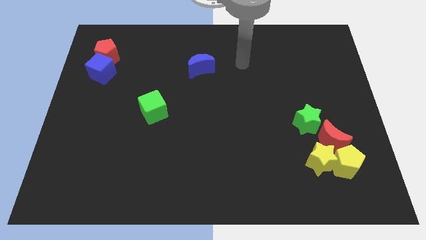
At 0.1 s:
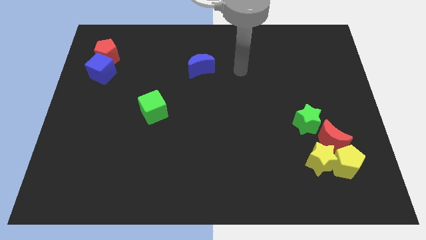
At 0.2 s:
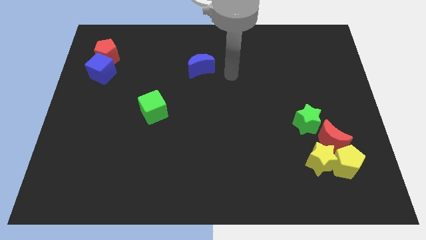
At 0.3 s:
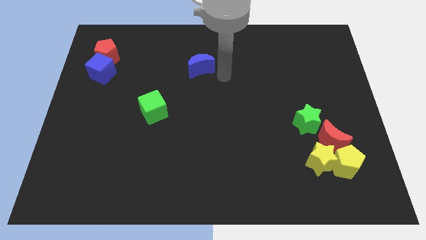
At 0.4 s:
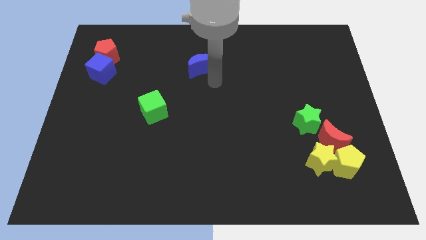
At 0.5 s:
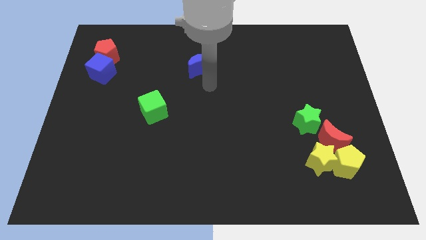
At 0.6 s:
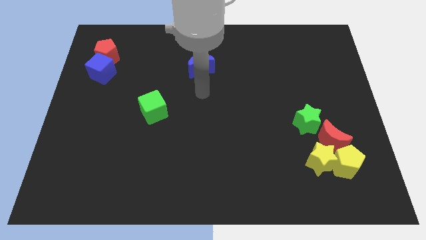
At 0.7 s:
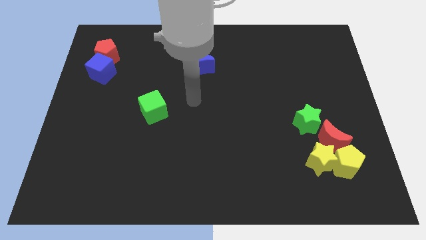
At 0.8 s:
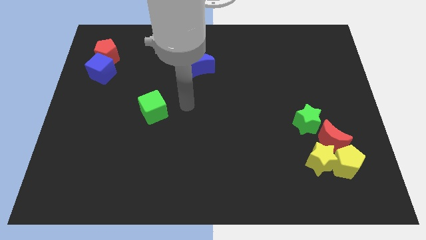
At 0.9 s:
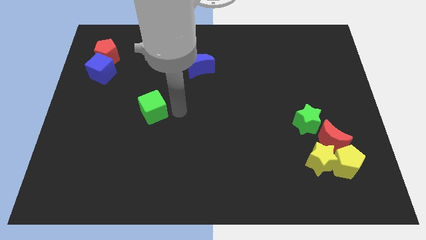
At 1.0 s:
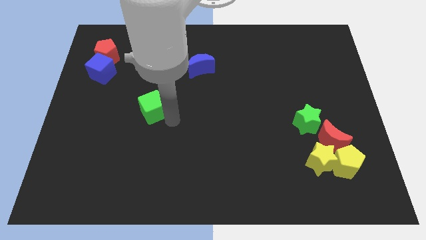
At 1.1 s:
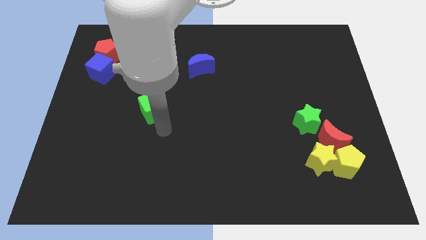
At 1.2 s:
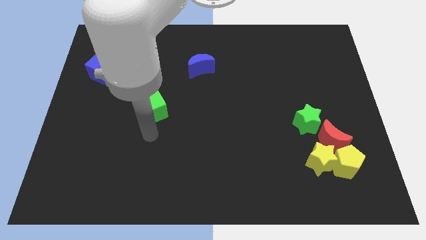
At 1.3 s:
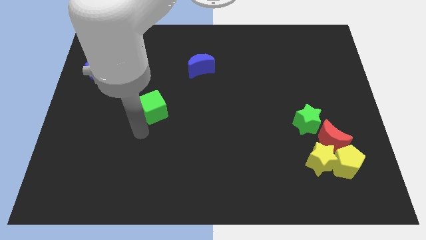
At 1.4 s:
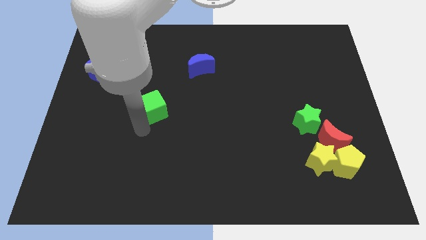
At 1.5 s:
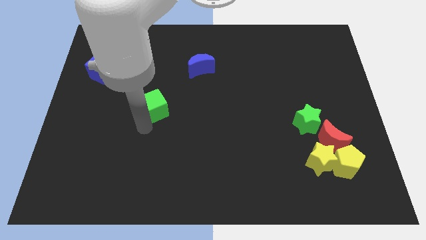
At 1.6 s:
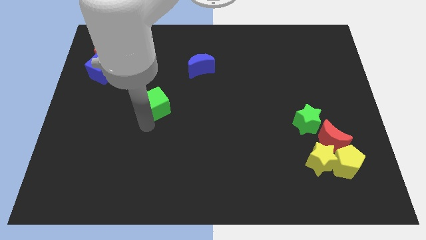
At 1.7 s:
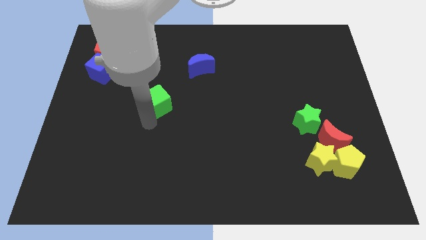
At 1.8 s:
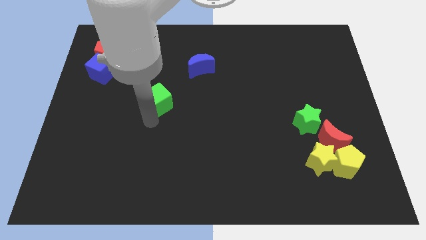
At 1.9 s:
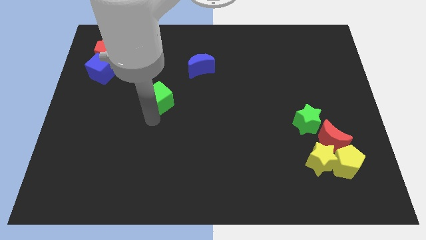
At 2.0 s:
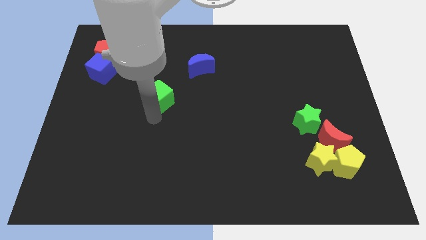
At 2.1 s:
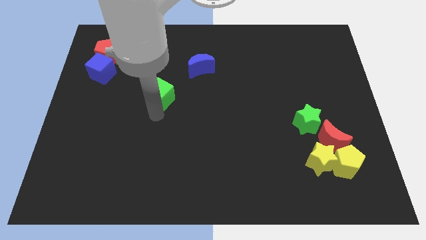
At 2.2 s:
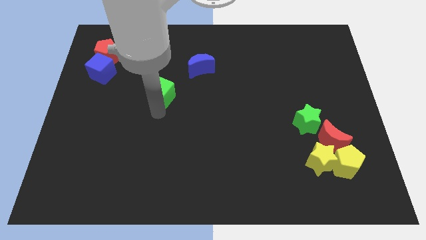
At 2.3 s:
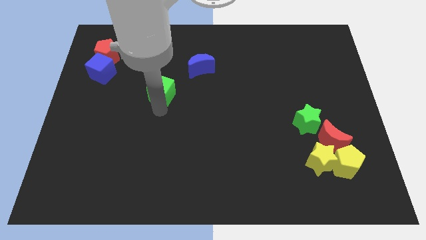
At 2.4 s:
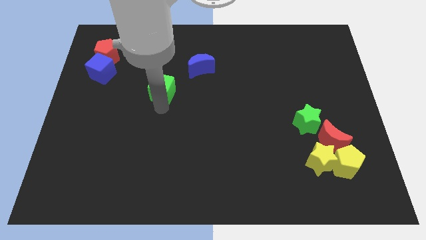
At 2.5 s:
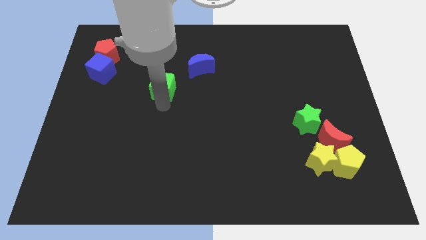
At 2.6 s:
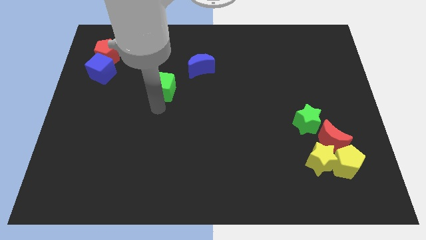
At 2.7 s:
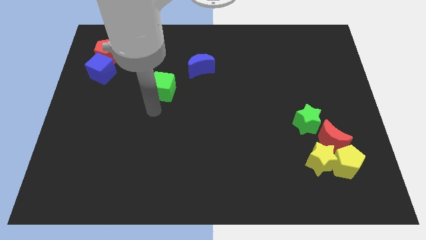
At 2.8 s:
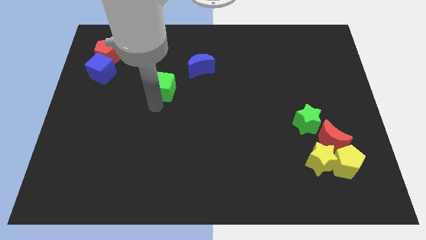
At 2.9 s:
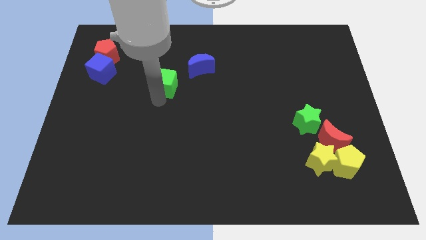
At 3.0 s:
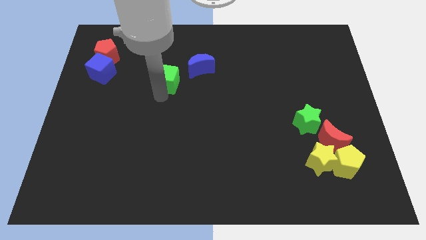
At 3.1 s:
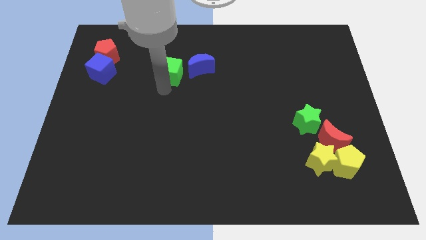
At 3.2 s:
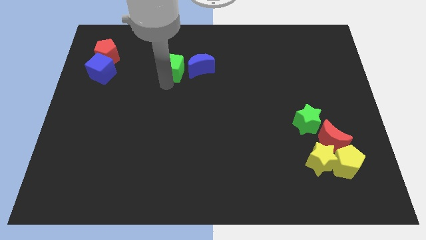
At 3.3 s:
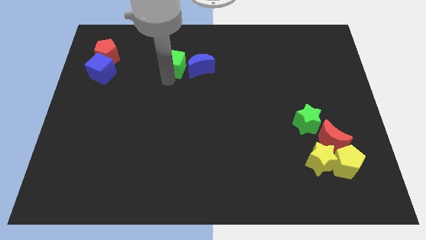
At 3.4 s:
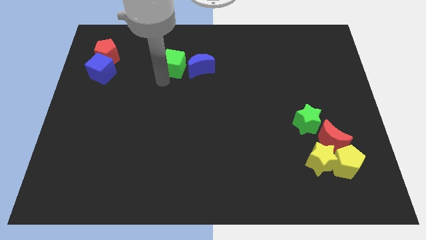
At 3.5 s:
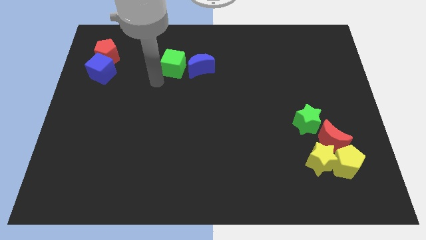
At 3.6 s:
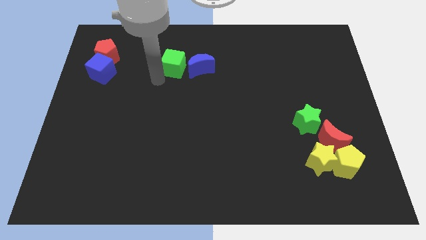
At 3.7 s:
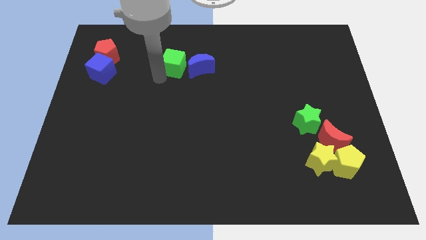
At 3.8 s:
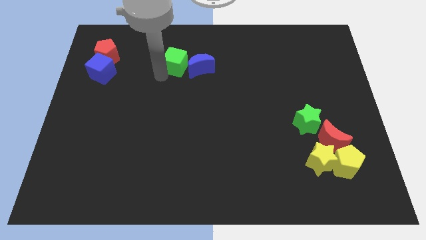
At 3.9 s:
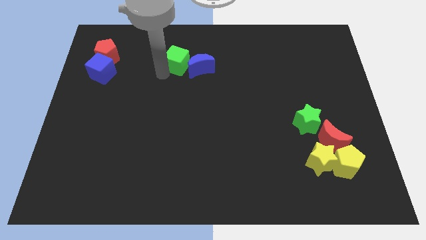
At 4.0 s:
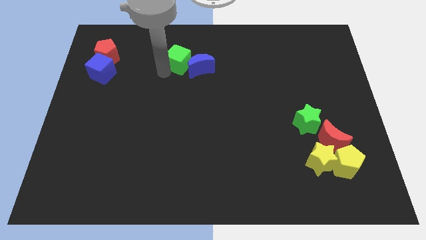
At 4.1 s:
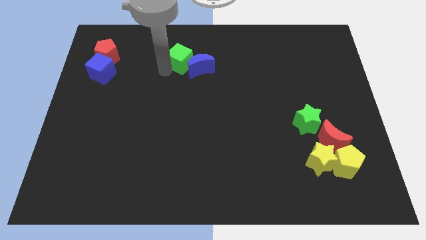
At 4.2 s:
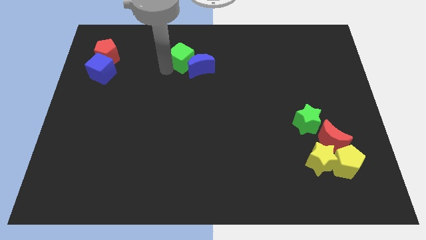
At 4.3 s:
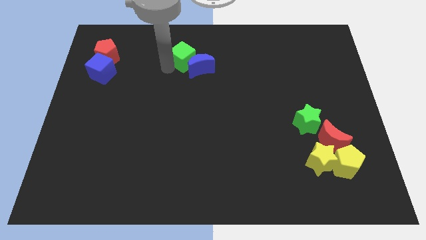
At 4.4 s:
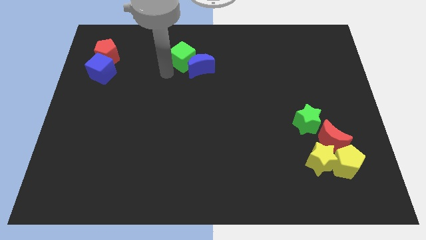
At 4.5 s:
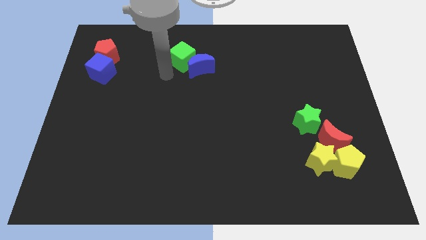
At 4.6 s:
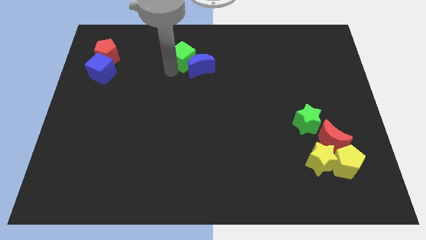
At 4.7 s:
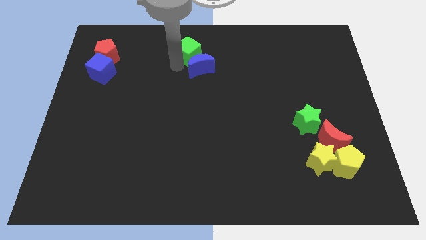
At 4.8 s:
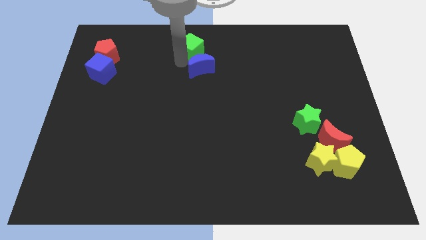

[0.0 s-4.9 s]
move the green cube to the top side

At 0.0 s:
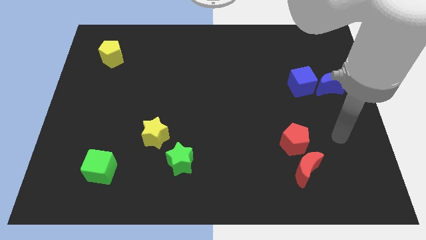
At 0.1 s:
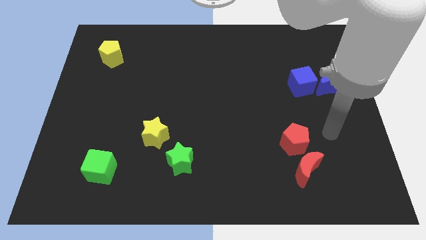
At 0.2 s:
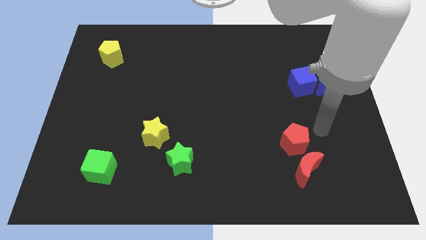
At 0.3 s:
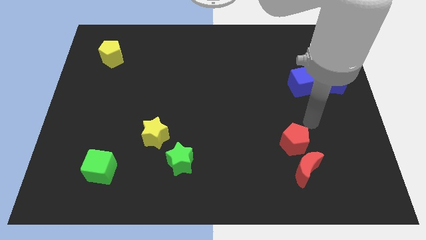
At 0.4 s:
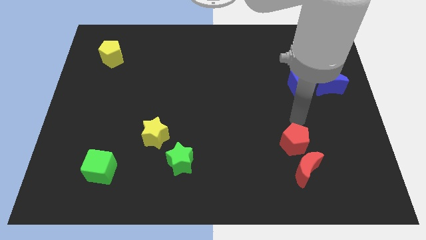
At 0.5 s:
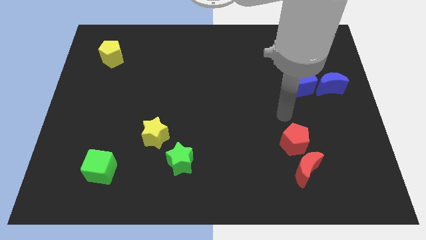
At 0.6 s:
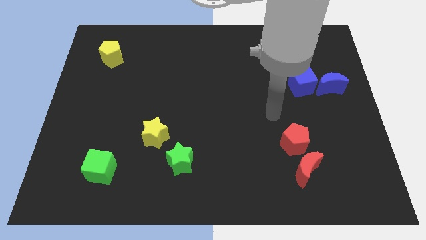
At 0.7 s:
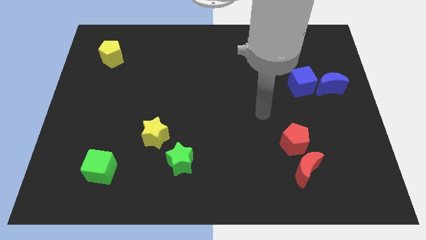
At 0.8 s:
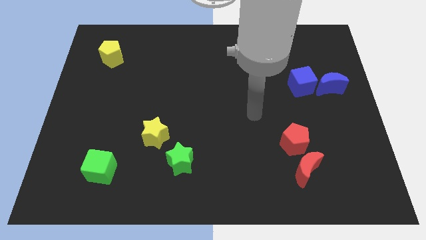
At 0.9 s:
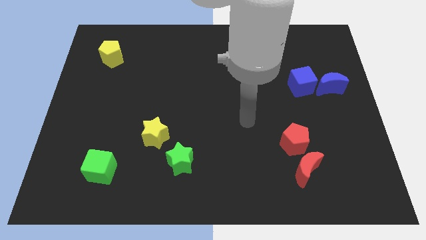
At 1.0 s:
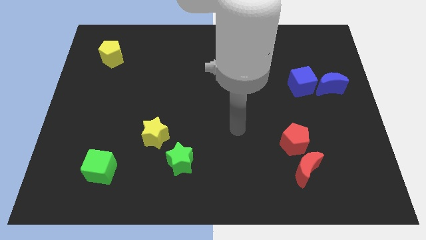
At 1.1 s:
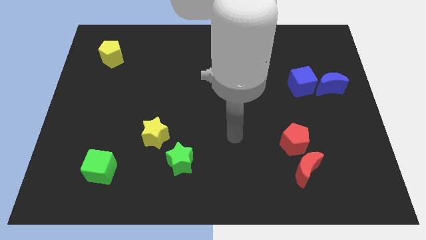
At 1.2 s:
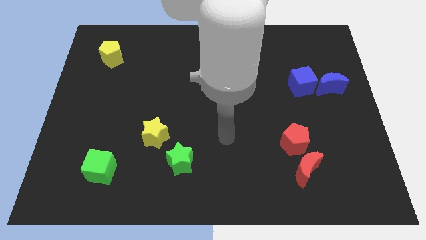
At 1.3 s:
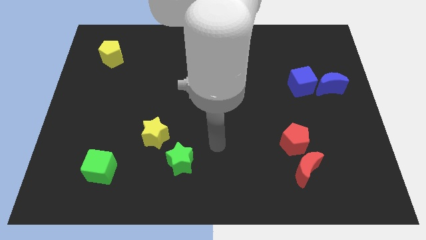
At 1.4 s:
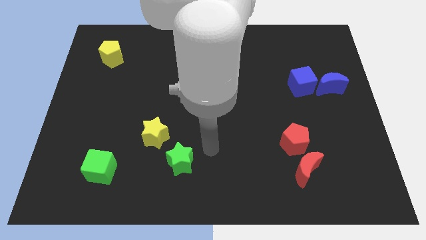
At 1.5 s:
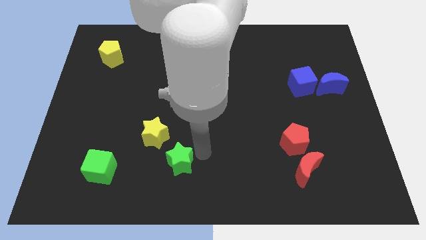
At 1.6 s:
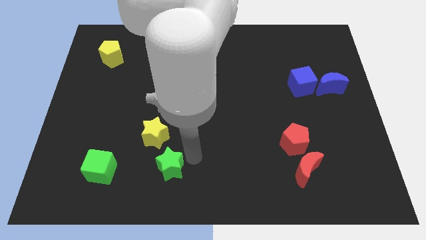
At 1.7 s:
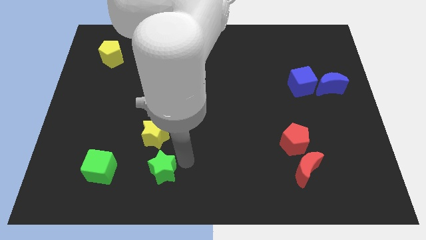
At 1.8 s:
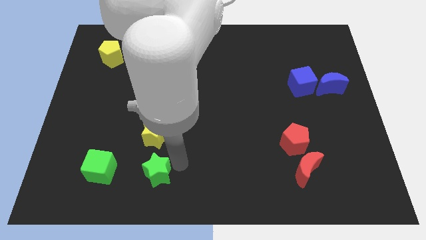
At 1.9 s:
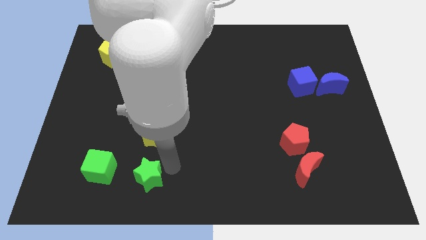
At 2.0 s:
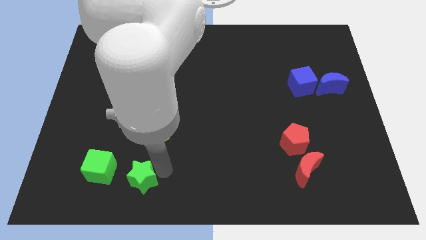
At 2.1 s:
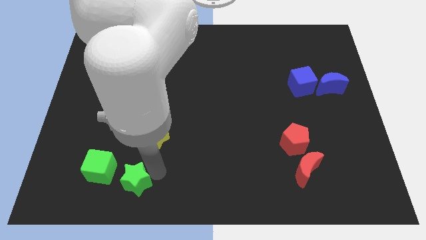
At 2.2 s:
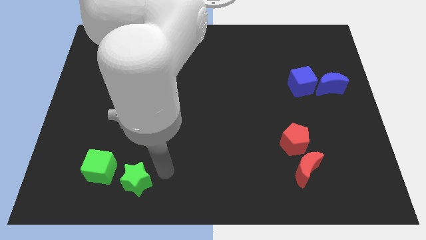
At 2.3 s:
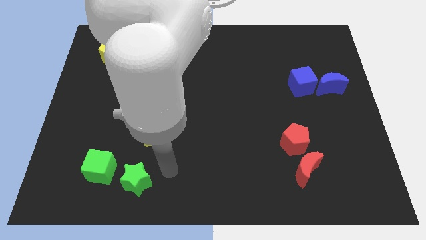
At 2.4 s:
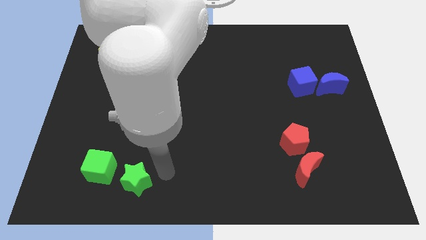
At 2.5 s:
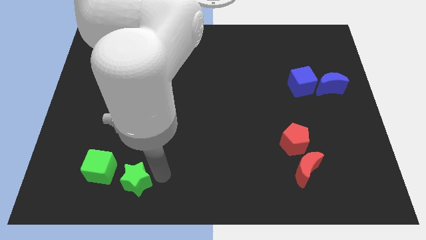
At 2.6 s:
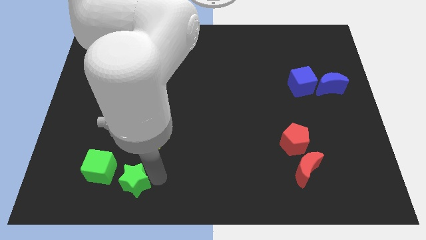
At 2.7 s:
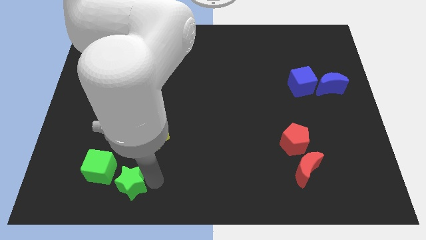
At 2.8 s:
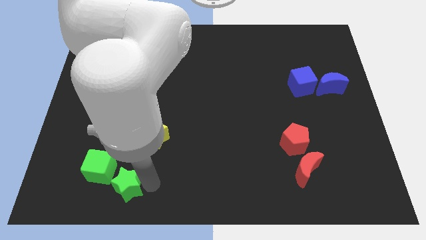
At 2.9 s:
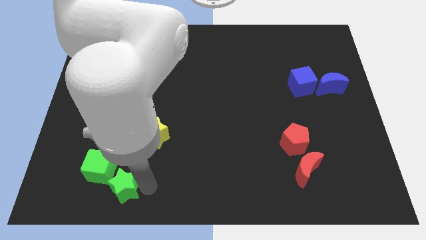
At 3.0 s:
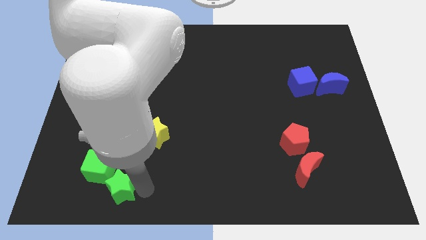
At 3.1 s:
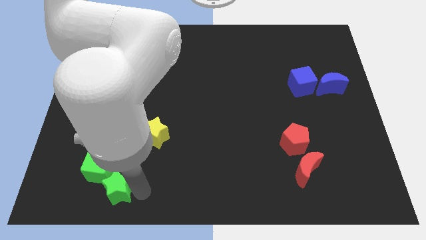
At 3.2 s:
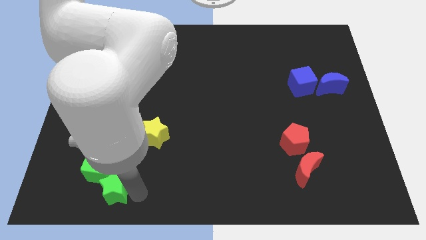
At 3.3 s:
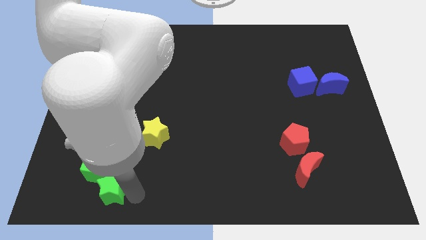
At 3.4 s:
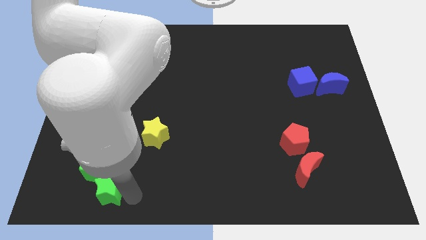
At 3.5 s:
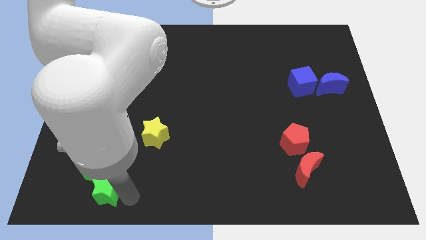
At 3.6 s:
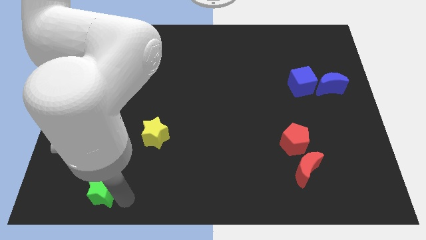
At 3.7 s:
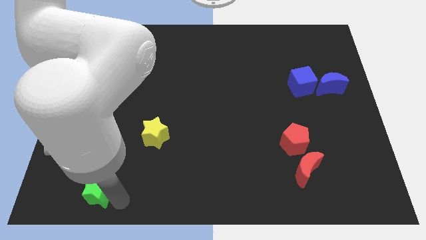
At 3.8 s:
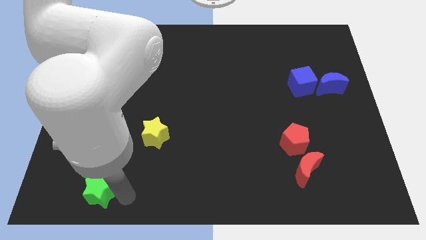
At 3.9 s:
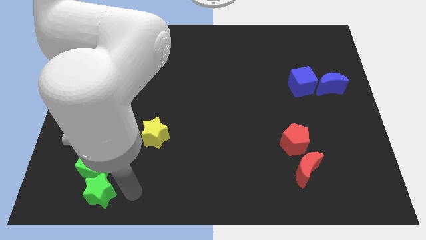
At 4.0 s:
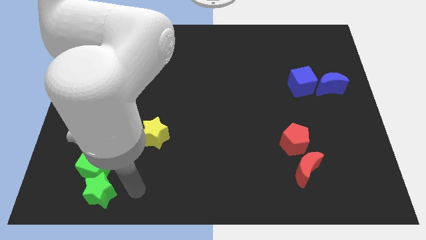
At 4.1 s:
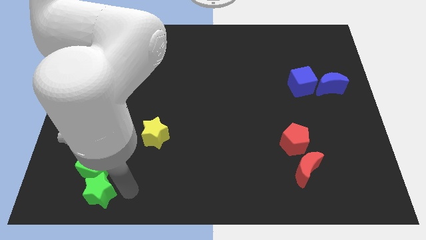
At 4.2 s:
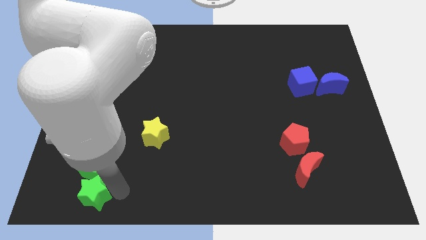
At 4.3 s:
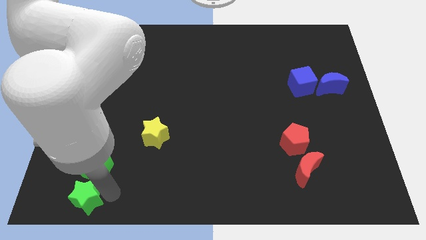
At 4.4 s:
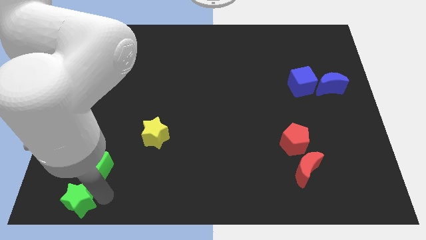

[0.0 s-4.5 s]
move the green star to the bottom left of the board
